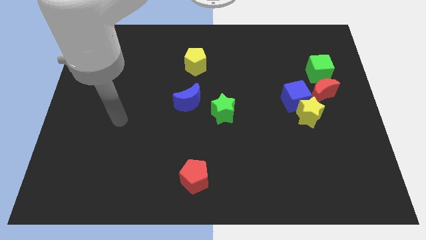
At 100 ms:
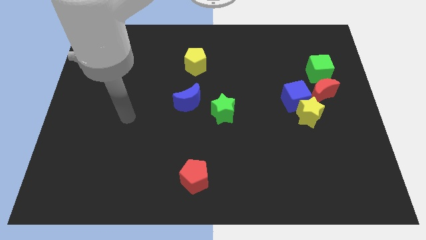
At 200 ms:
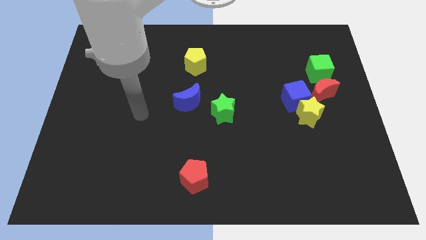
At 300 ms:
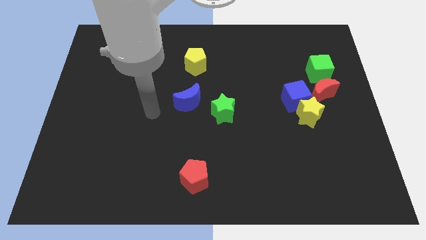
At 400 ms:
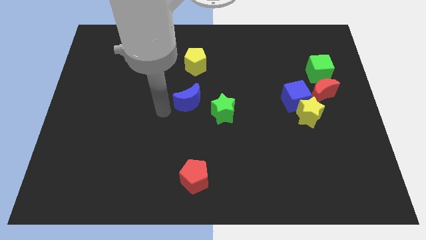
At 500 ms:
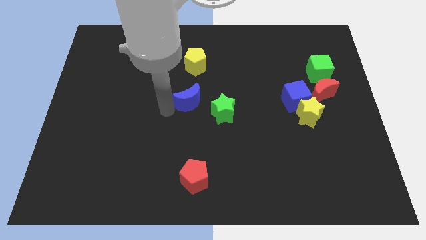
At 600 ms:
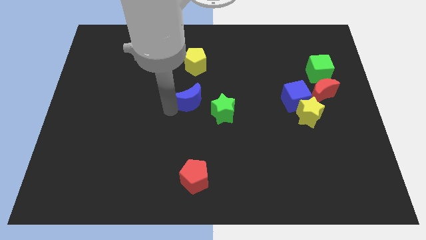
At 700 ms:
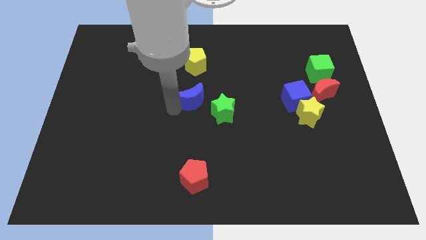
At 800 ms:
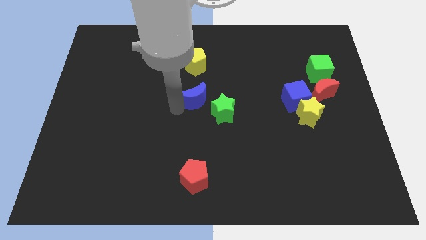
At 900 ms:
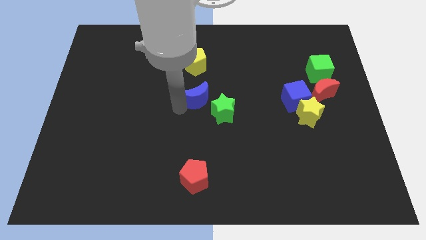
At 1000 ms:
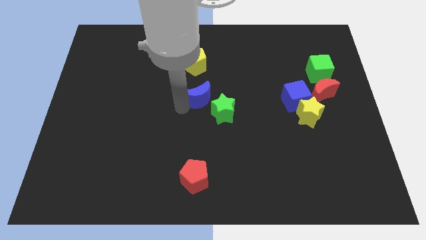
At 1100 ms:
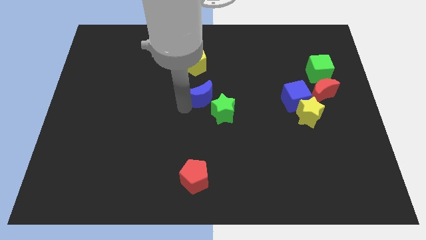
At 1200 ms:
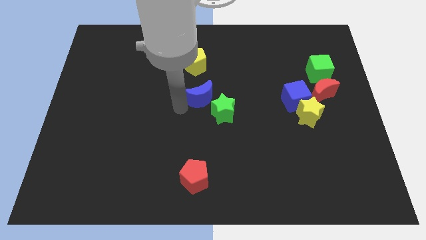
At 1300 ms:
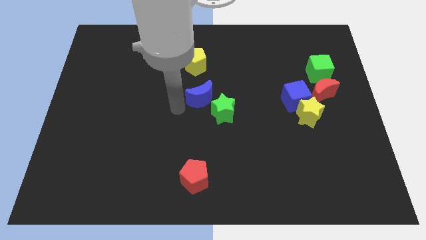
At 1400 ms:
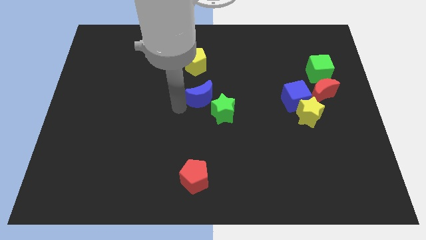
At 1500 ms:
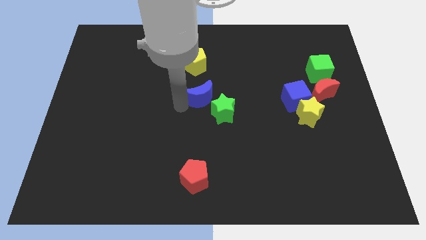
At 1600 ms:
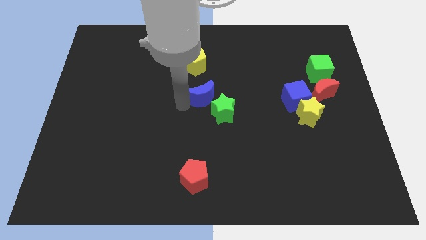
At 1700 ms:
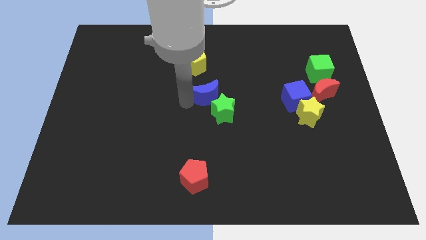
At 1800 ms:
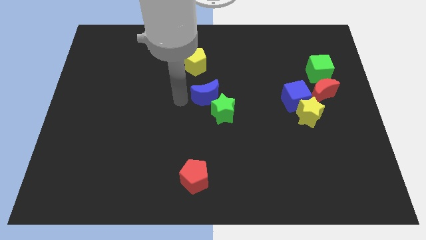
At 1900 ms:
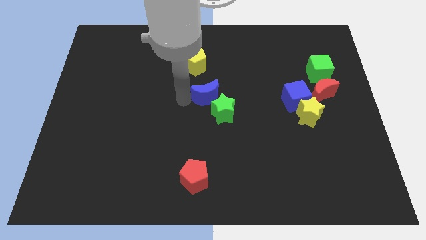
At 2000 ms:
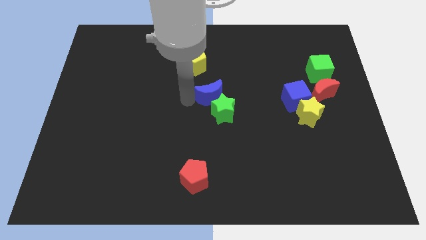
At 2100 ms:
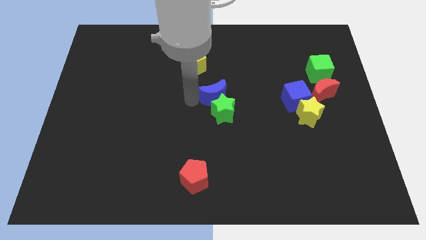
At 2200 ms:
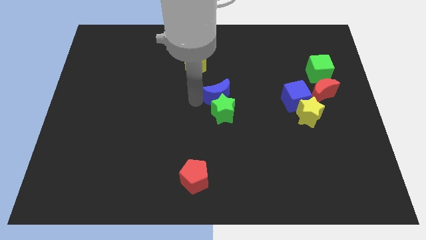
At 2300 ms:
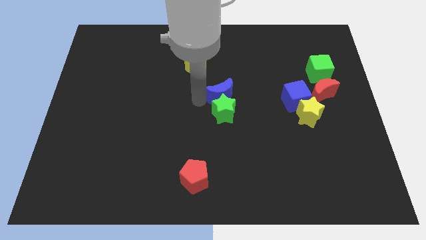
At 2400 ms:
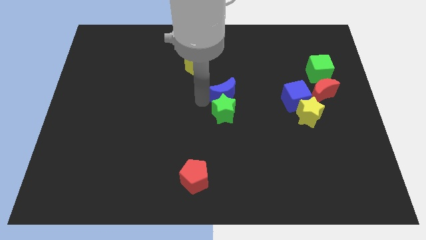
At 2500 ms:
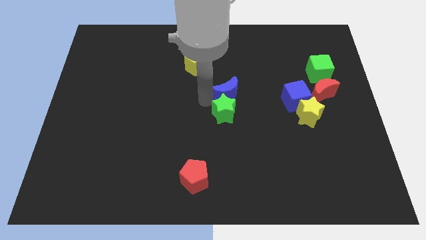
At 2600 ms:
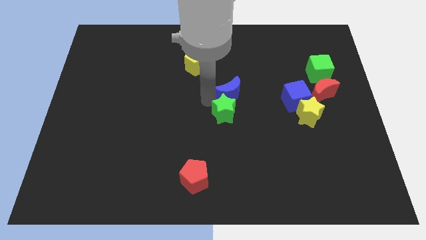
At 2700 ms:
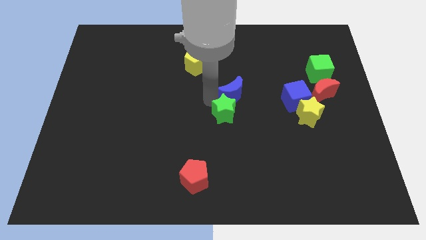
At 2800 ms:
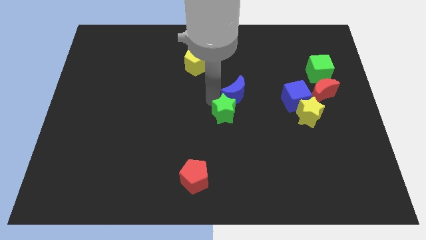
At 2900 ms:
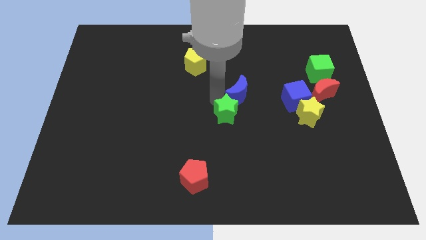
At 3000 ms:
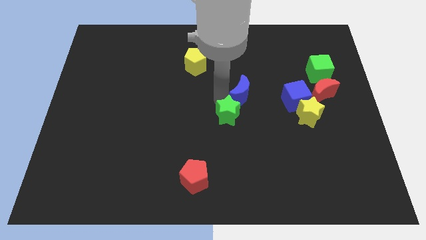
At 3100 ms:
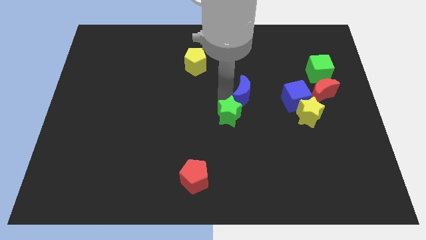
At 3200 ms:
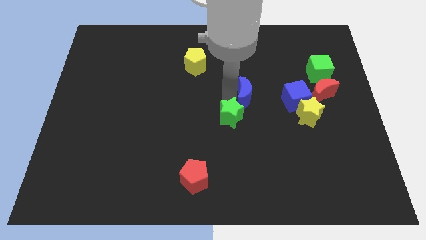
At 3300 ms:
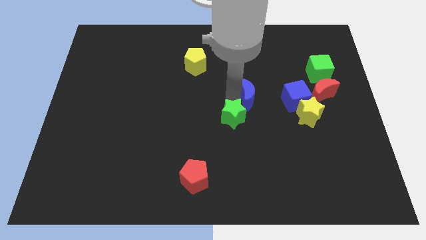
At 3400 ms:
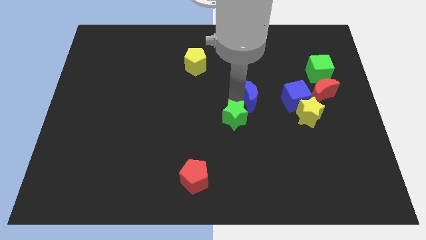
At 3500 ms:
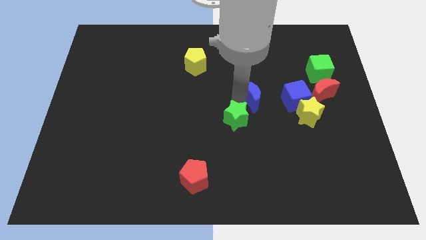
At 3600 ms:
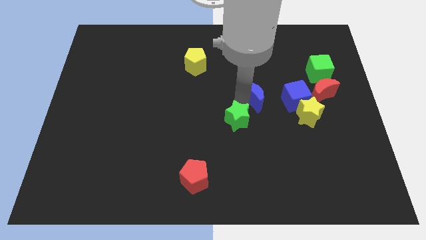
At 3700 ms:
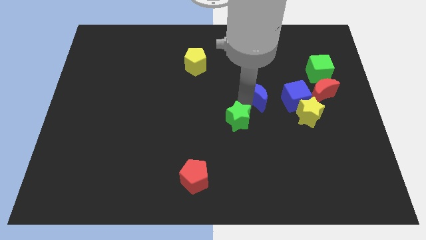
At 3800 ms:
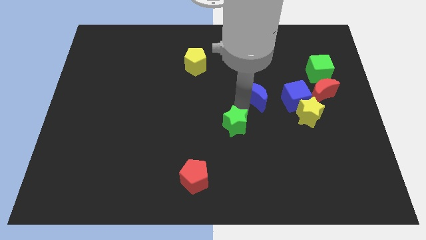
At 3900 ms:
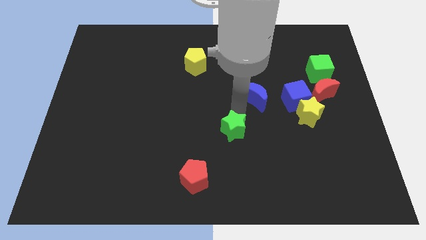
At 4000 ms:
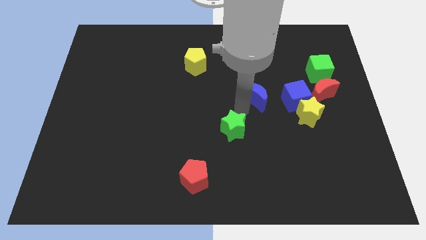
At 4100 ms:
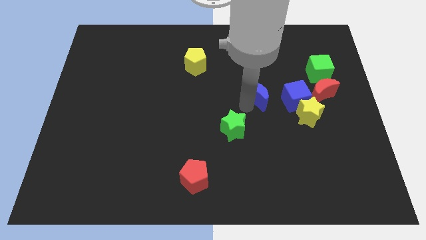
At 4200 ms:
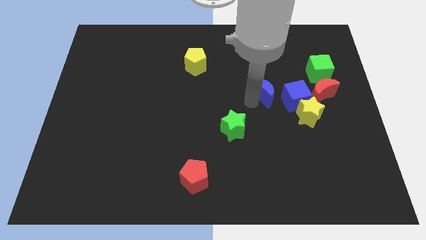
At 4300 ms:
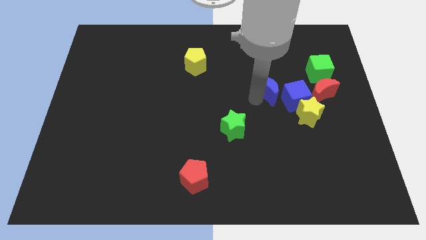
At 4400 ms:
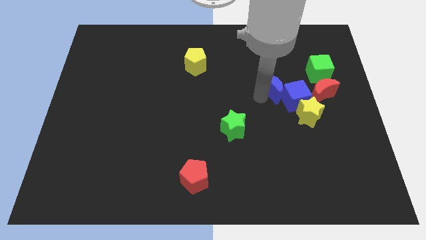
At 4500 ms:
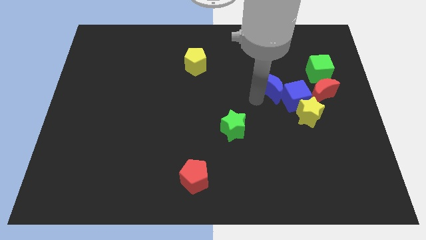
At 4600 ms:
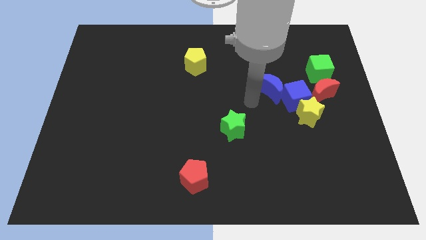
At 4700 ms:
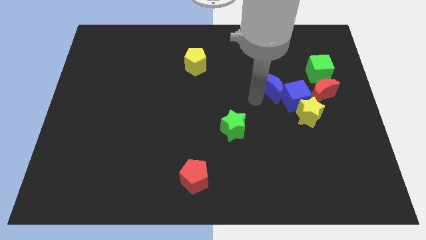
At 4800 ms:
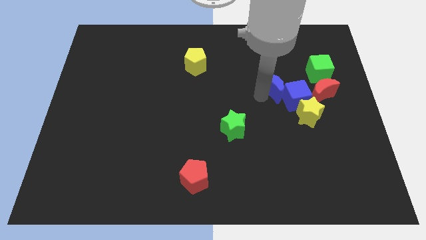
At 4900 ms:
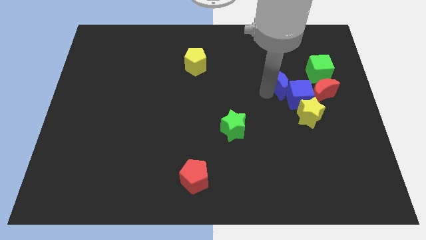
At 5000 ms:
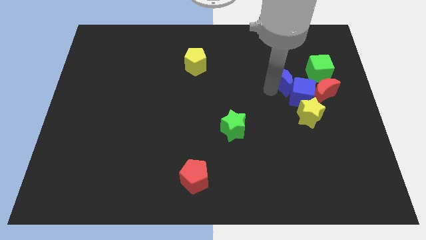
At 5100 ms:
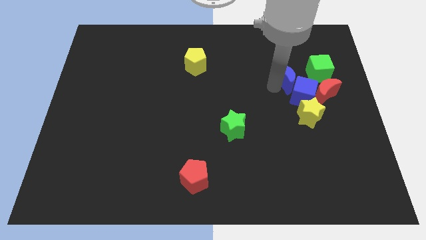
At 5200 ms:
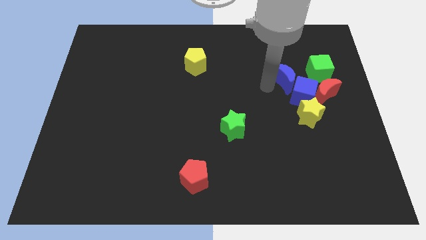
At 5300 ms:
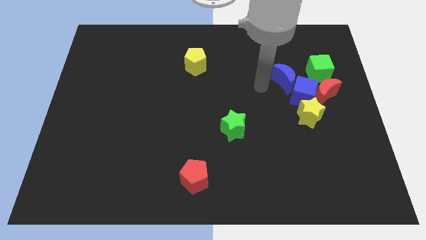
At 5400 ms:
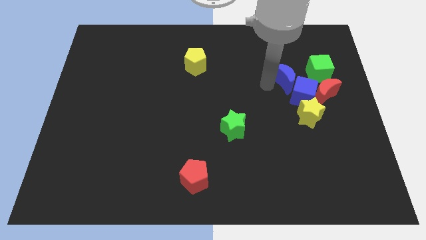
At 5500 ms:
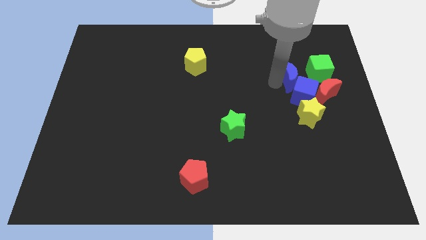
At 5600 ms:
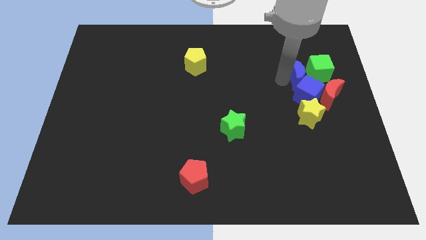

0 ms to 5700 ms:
push the blue moon close to the green cube

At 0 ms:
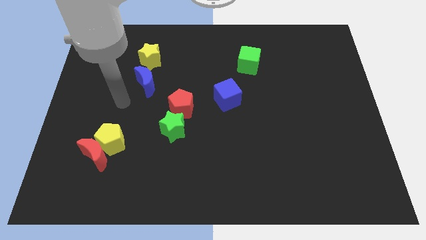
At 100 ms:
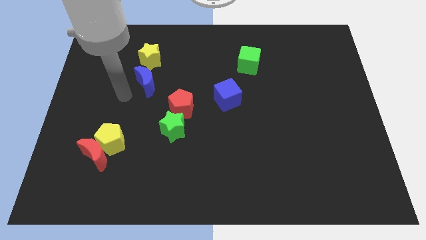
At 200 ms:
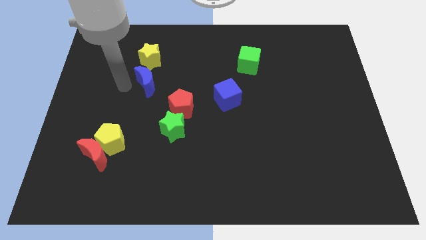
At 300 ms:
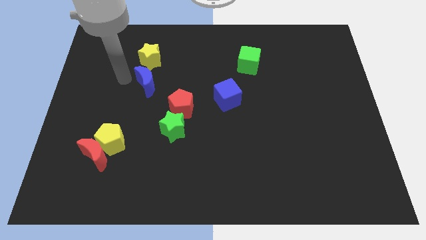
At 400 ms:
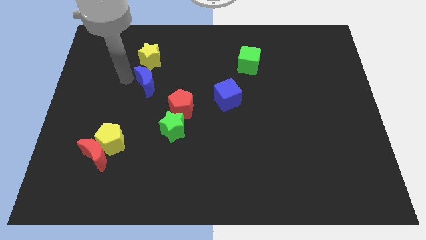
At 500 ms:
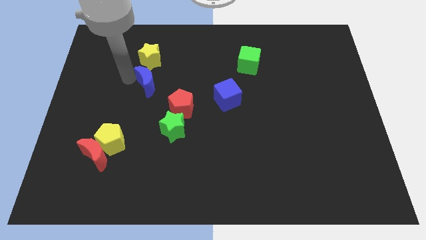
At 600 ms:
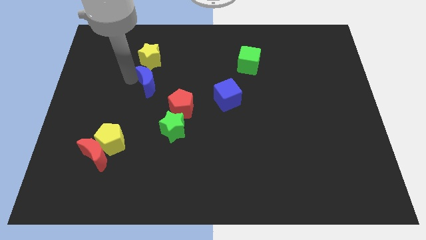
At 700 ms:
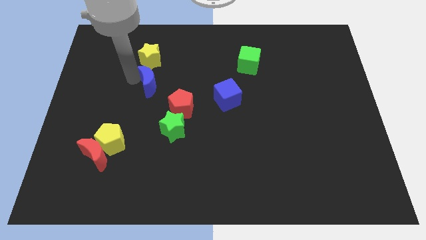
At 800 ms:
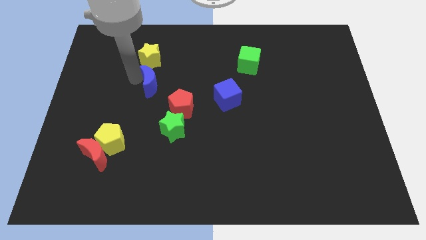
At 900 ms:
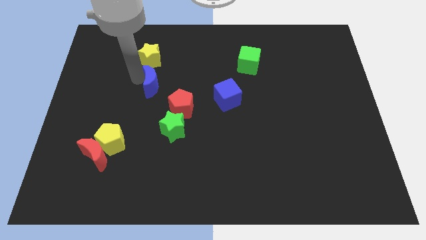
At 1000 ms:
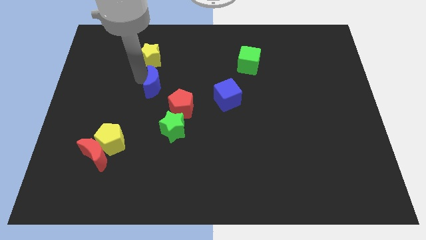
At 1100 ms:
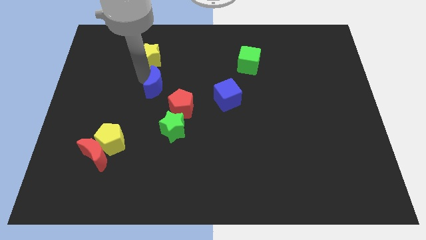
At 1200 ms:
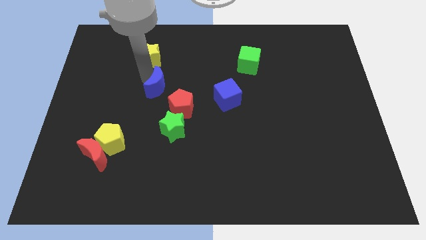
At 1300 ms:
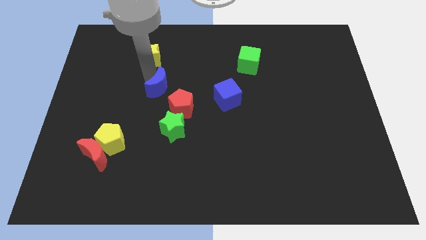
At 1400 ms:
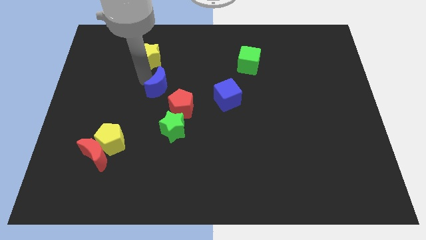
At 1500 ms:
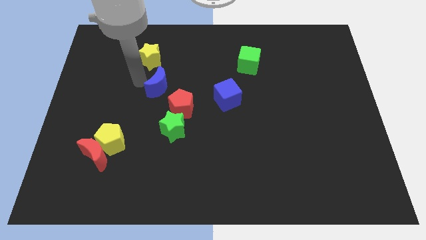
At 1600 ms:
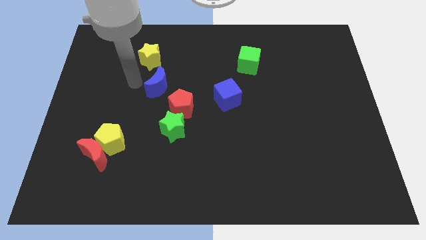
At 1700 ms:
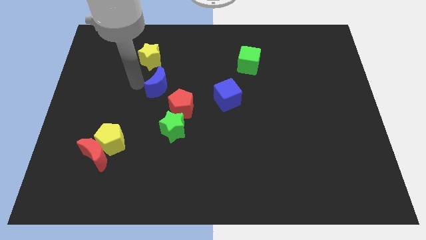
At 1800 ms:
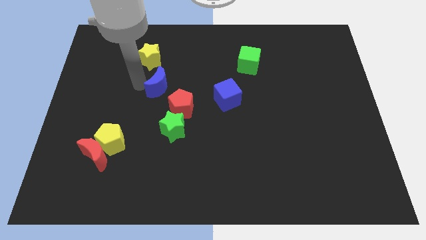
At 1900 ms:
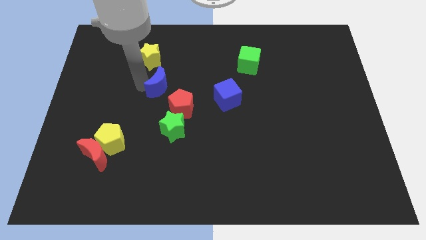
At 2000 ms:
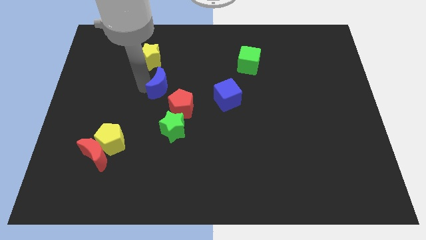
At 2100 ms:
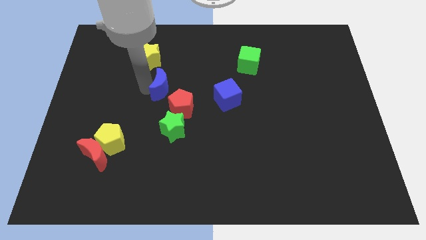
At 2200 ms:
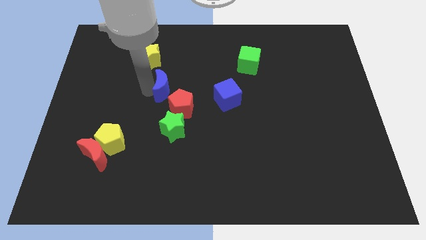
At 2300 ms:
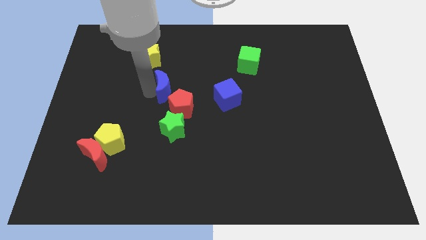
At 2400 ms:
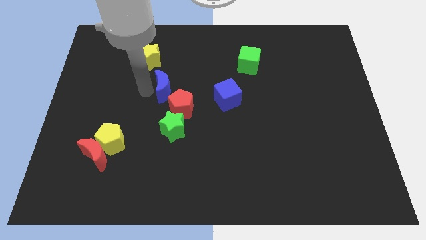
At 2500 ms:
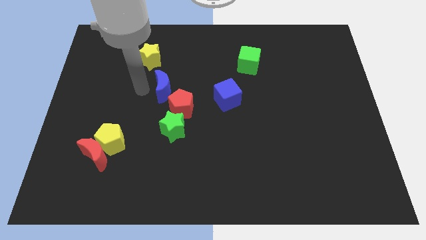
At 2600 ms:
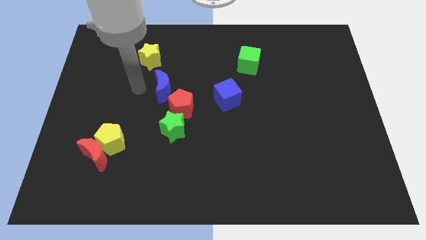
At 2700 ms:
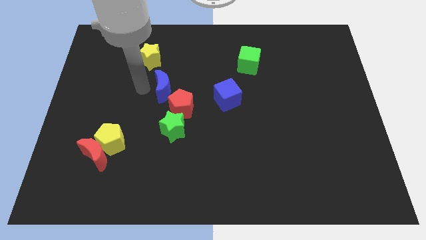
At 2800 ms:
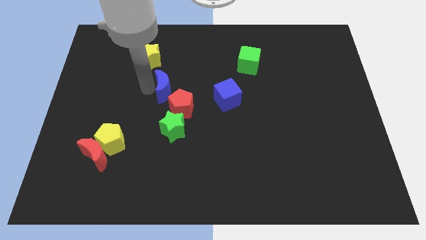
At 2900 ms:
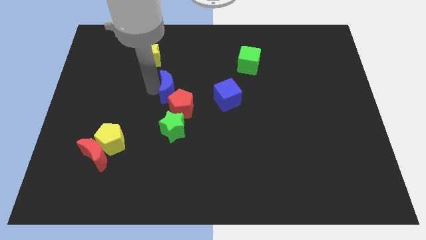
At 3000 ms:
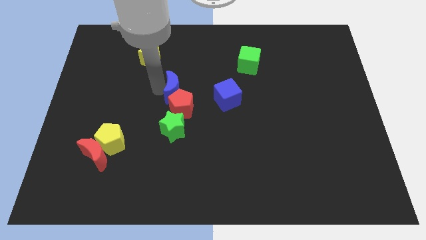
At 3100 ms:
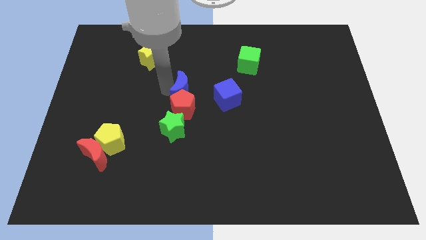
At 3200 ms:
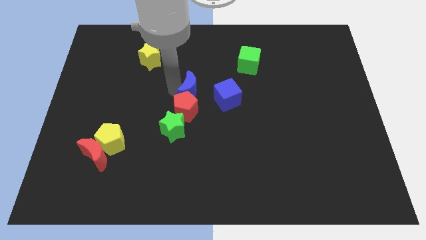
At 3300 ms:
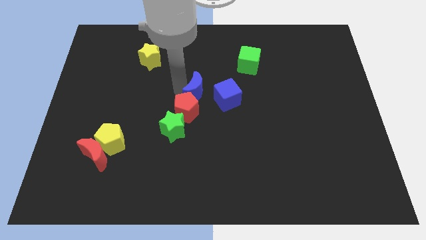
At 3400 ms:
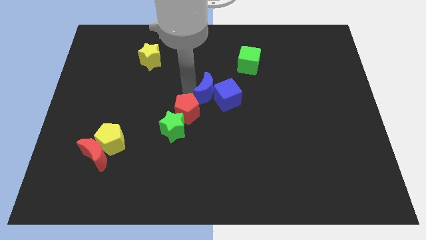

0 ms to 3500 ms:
move the blue moon next to the blue cube
